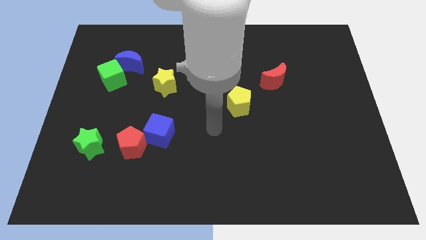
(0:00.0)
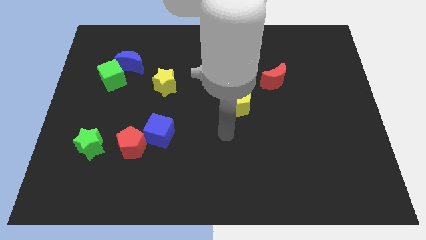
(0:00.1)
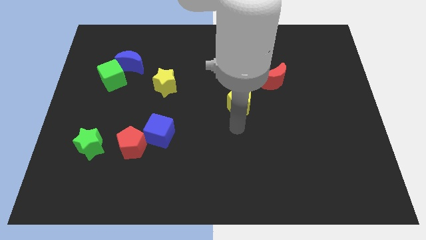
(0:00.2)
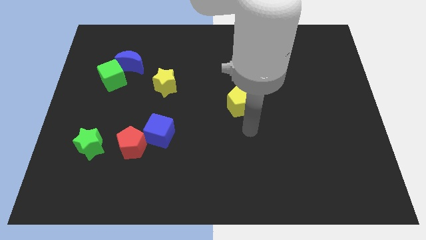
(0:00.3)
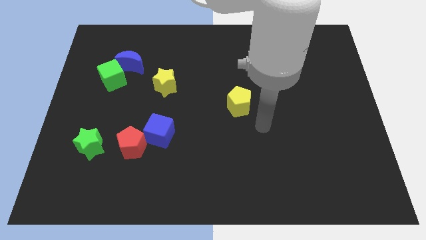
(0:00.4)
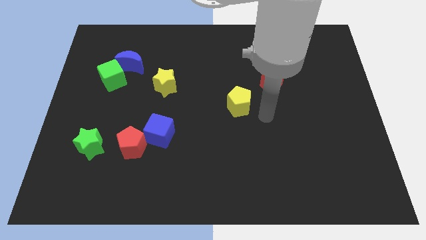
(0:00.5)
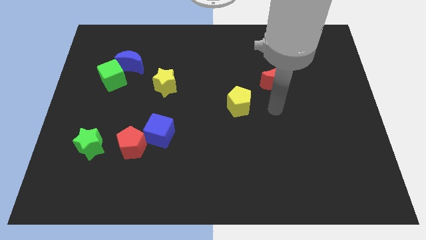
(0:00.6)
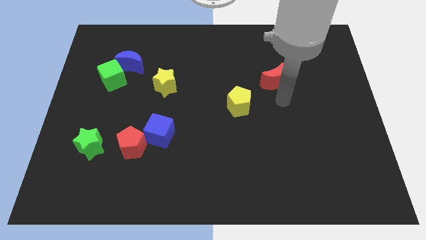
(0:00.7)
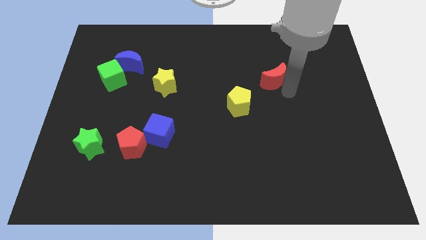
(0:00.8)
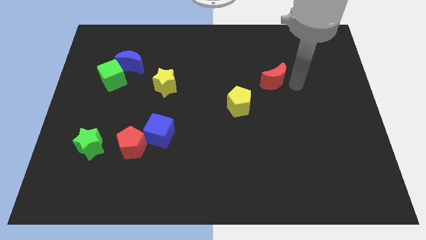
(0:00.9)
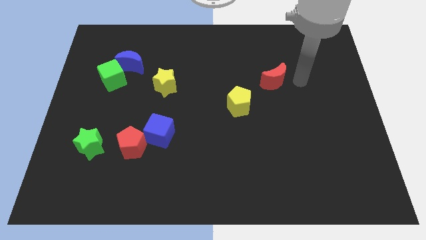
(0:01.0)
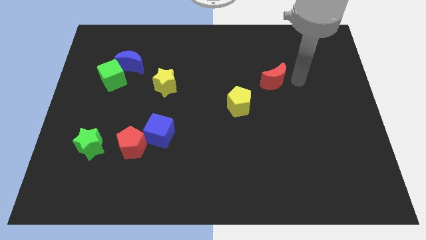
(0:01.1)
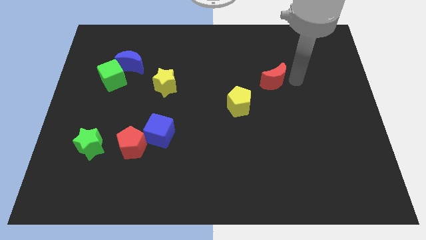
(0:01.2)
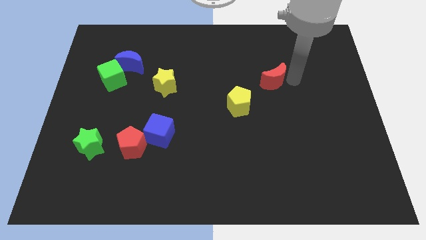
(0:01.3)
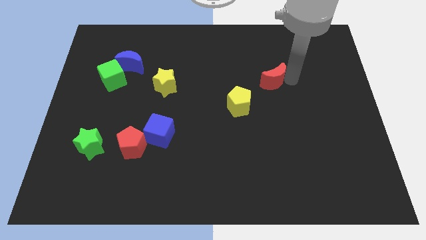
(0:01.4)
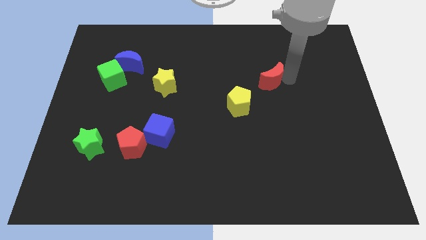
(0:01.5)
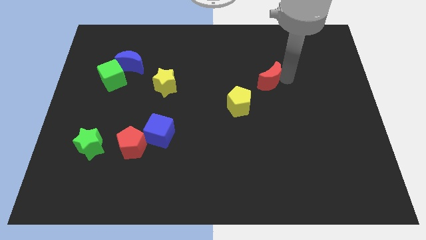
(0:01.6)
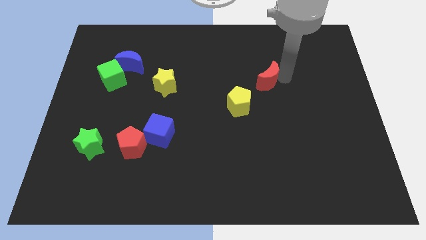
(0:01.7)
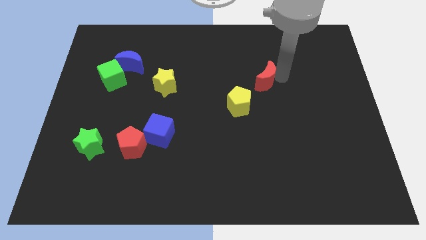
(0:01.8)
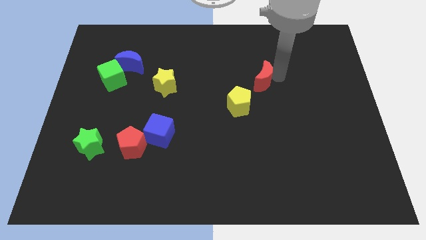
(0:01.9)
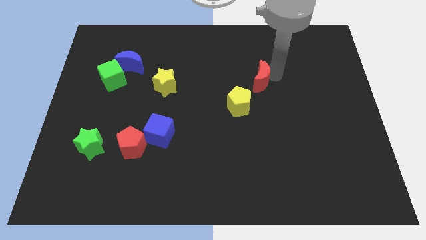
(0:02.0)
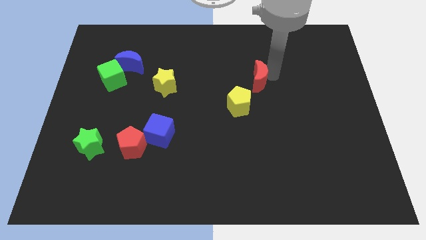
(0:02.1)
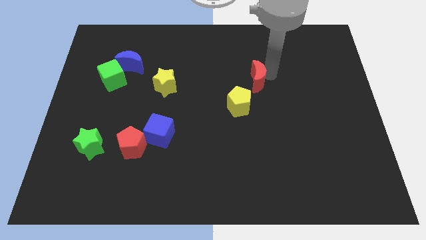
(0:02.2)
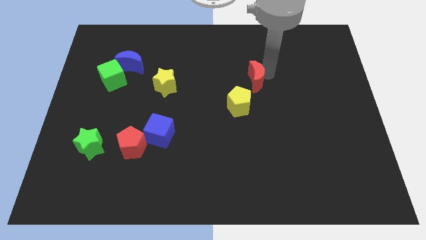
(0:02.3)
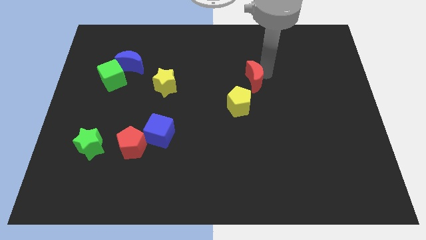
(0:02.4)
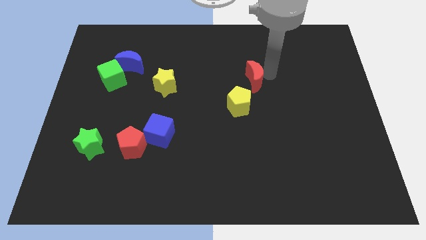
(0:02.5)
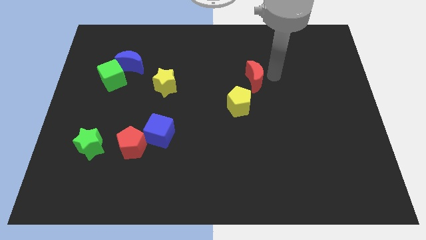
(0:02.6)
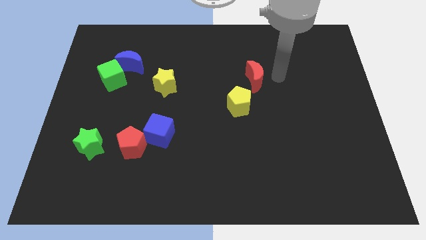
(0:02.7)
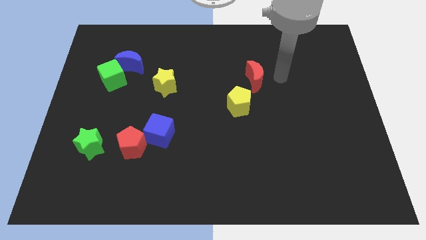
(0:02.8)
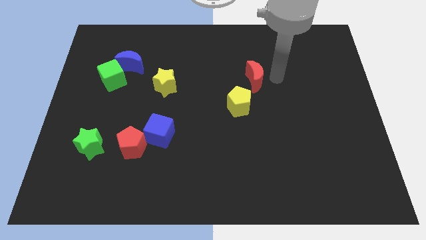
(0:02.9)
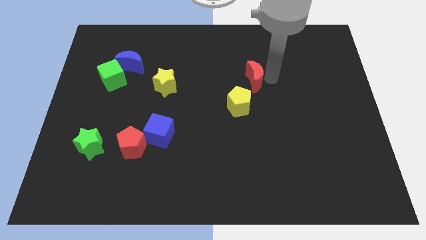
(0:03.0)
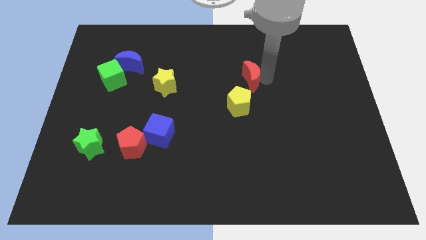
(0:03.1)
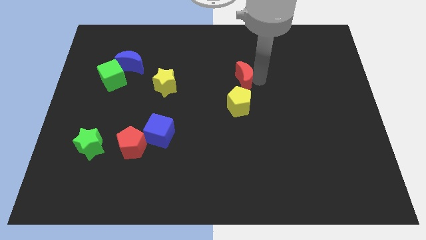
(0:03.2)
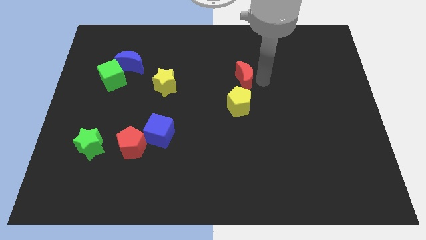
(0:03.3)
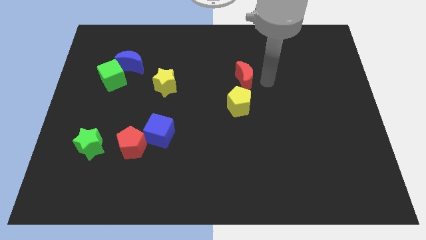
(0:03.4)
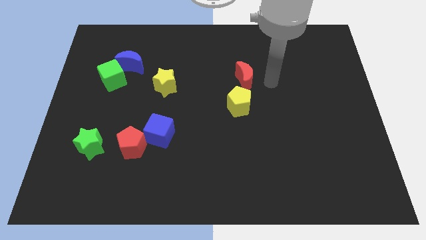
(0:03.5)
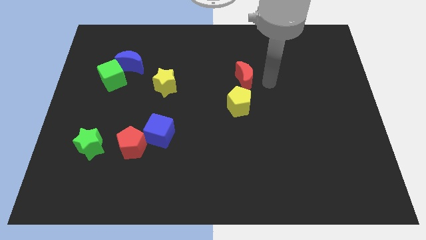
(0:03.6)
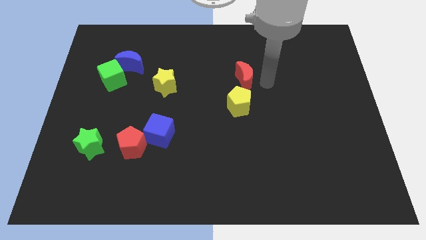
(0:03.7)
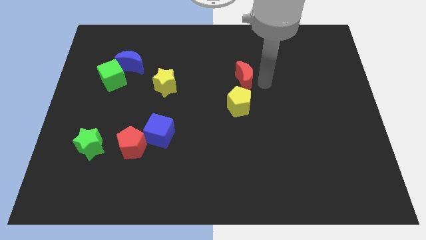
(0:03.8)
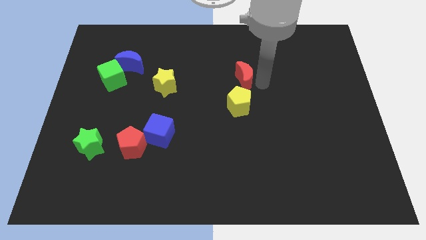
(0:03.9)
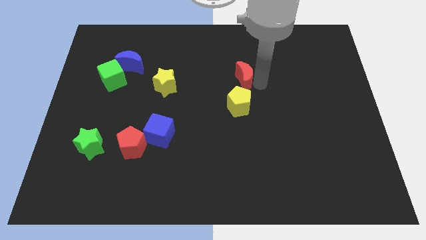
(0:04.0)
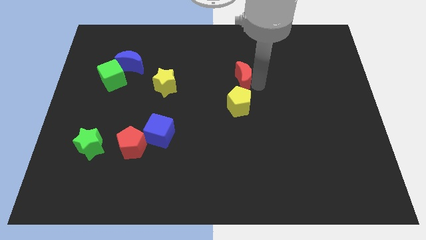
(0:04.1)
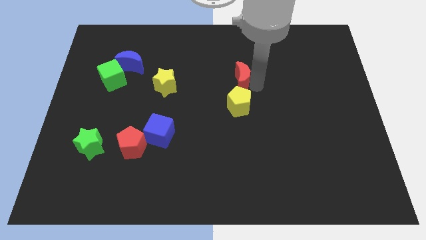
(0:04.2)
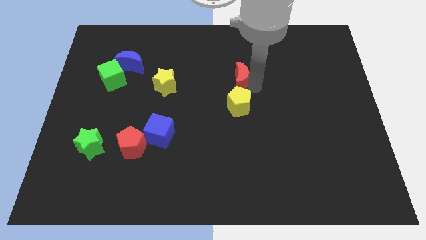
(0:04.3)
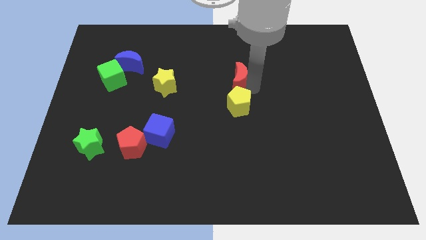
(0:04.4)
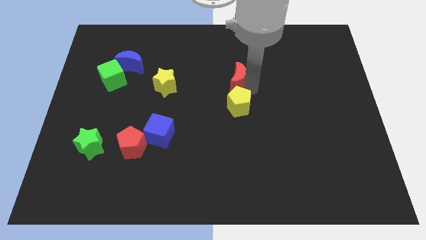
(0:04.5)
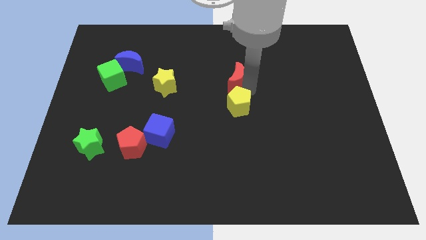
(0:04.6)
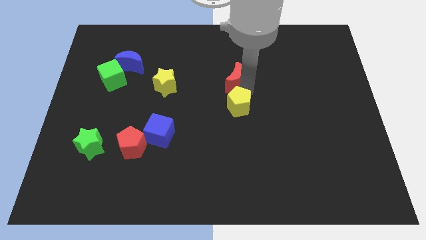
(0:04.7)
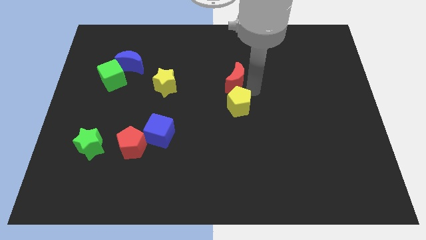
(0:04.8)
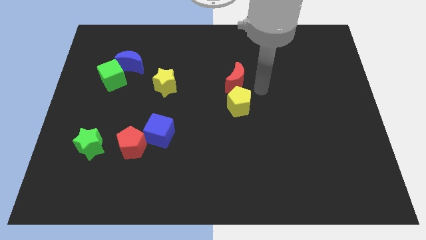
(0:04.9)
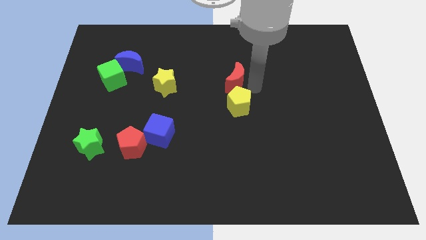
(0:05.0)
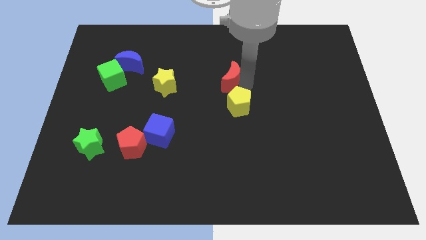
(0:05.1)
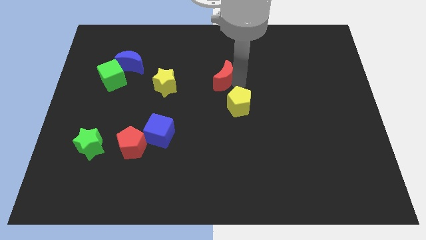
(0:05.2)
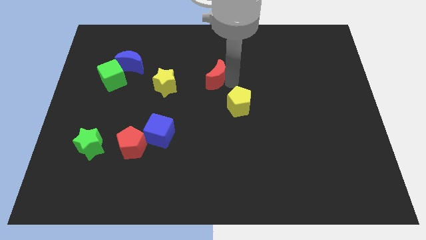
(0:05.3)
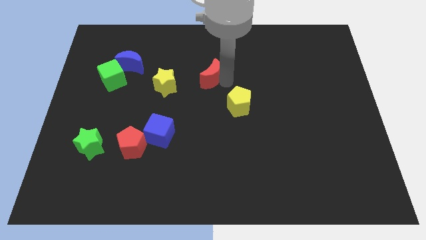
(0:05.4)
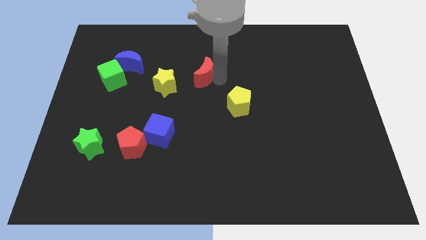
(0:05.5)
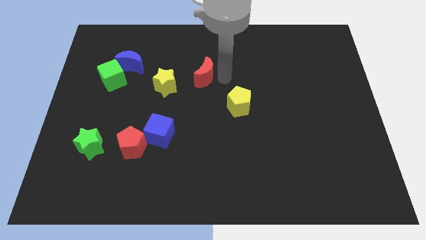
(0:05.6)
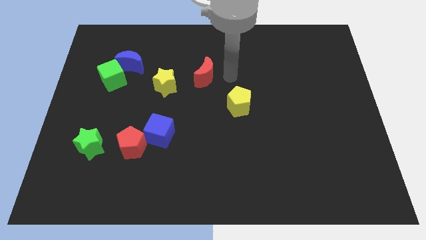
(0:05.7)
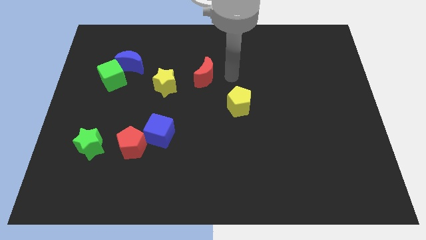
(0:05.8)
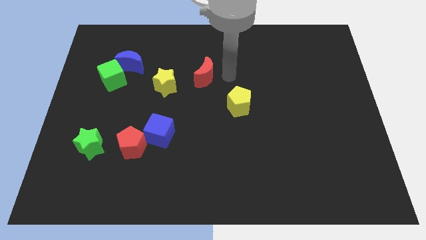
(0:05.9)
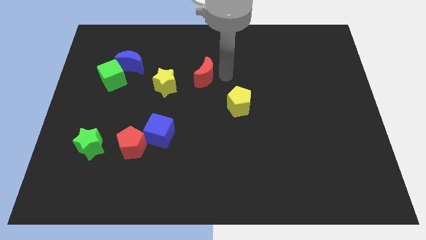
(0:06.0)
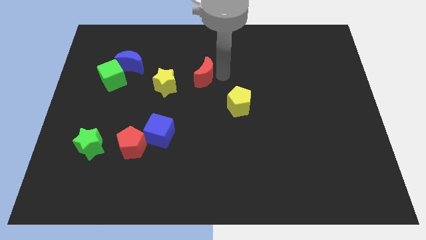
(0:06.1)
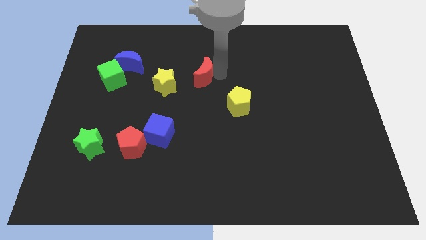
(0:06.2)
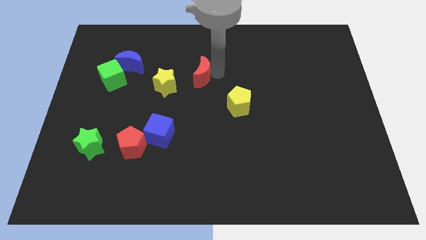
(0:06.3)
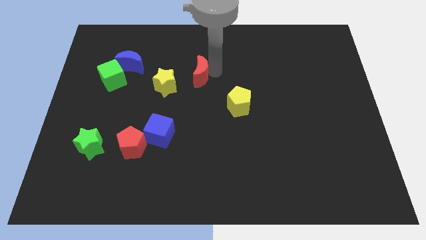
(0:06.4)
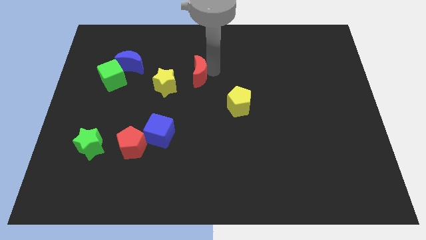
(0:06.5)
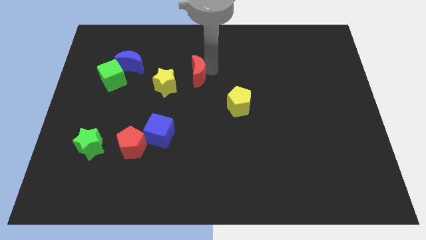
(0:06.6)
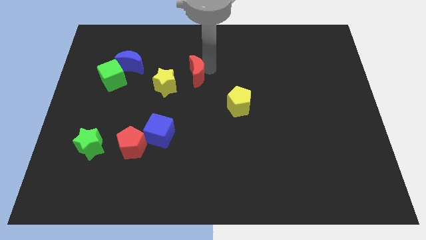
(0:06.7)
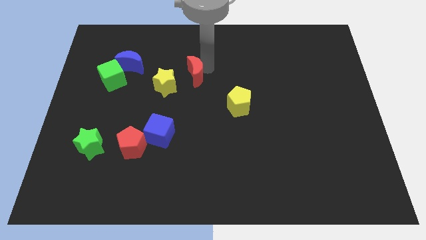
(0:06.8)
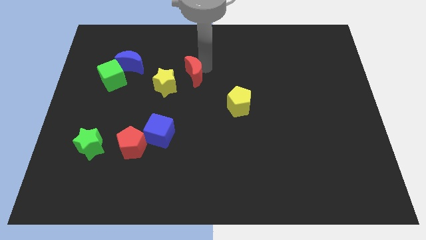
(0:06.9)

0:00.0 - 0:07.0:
push the red moon to the left

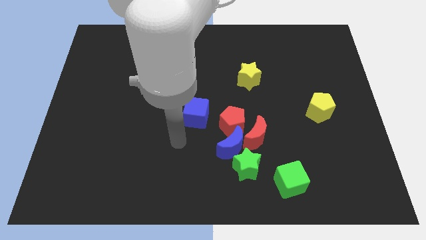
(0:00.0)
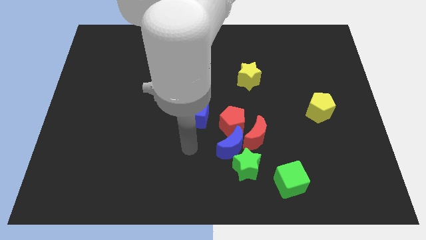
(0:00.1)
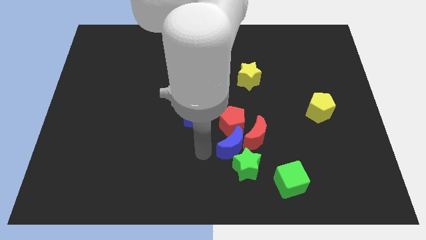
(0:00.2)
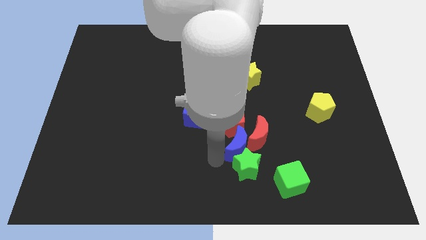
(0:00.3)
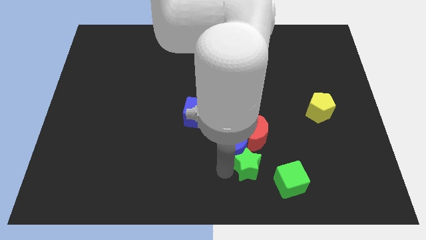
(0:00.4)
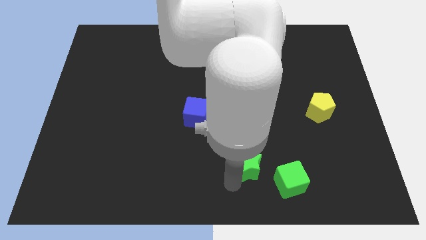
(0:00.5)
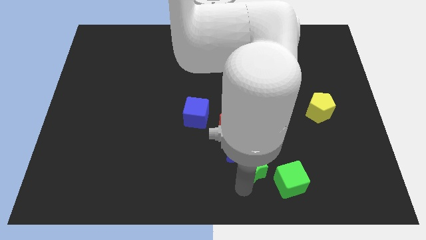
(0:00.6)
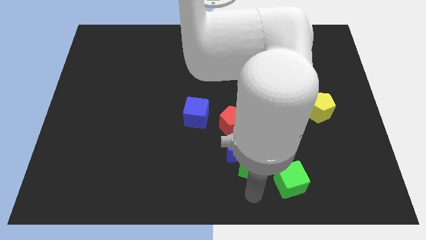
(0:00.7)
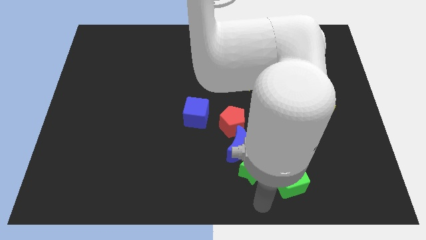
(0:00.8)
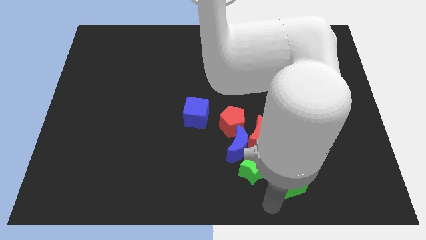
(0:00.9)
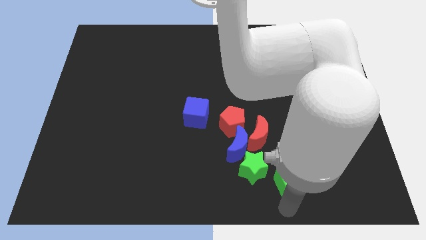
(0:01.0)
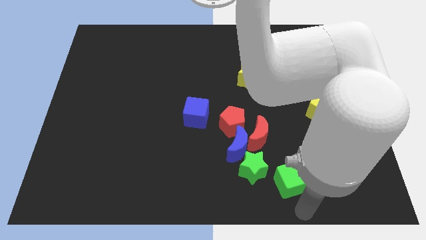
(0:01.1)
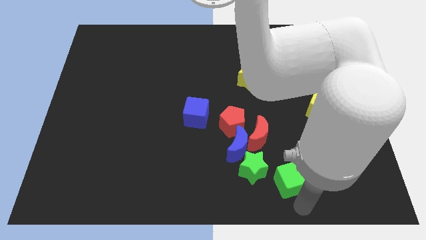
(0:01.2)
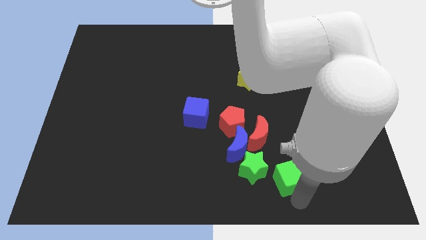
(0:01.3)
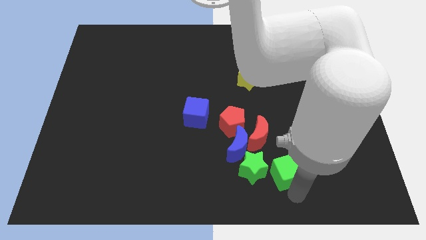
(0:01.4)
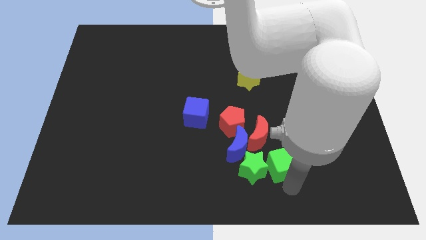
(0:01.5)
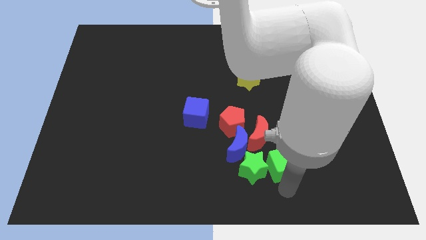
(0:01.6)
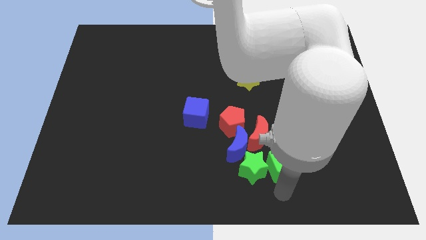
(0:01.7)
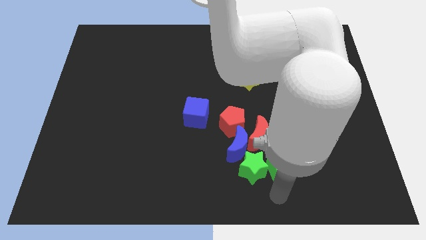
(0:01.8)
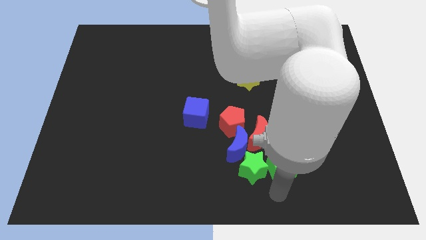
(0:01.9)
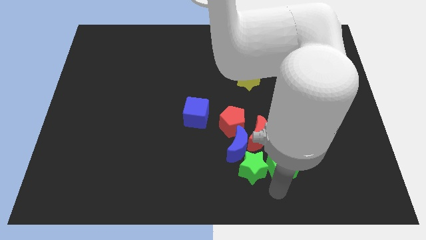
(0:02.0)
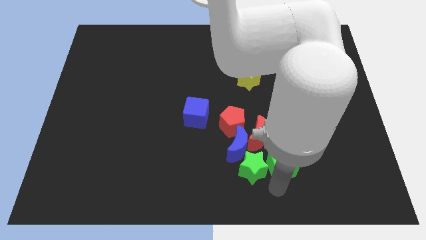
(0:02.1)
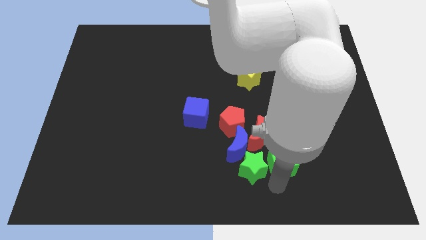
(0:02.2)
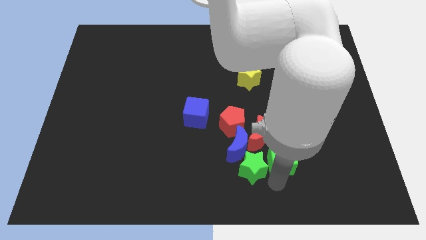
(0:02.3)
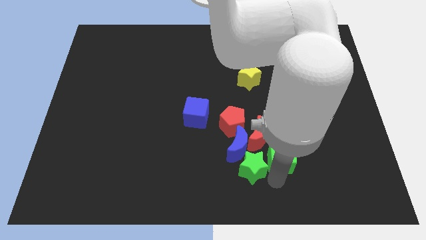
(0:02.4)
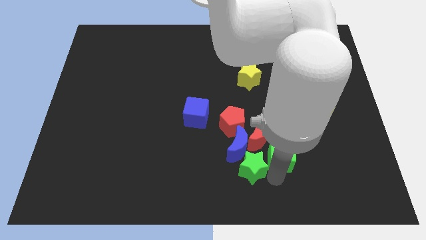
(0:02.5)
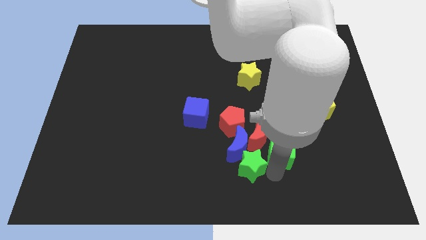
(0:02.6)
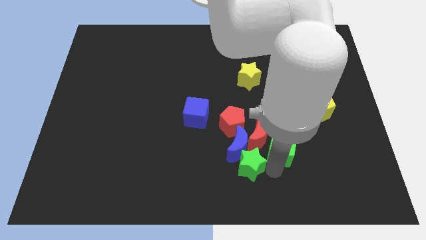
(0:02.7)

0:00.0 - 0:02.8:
slide the green cube somewhat upwards
